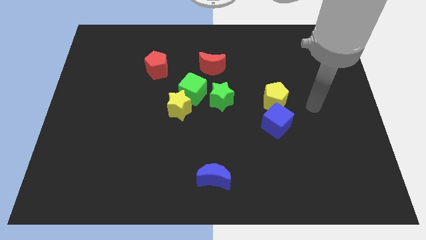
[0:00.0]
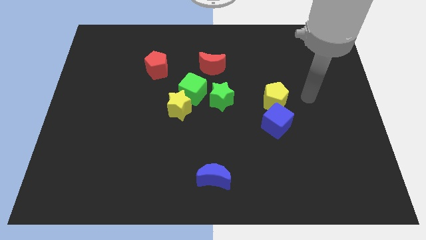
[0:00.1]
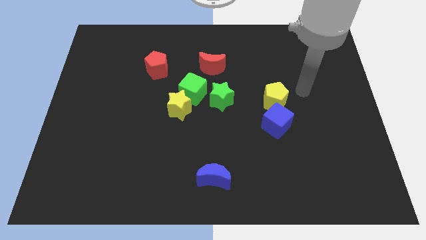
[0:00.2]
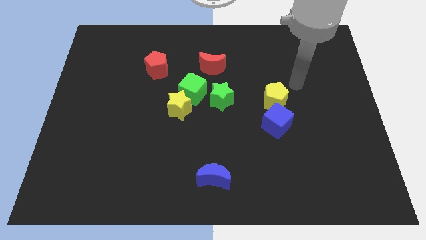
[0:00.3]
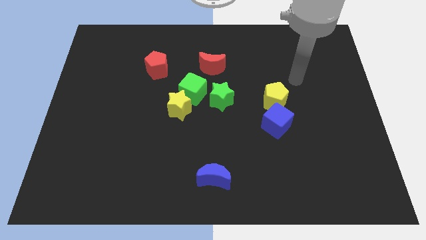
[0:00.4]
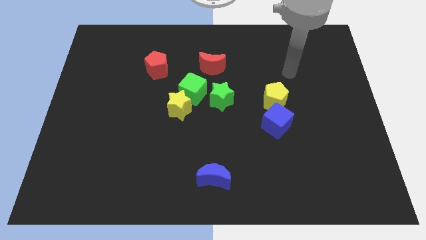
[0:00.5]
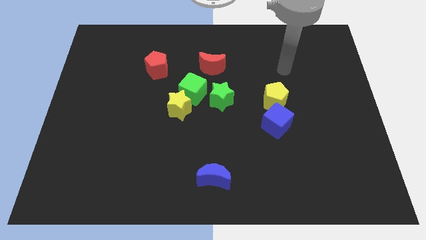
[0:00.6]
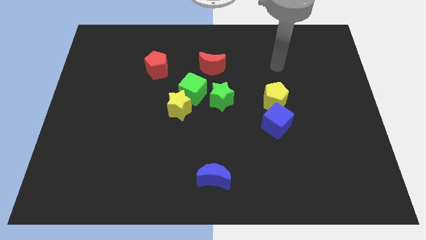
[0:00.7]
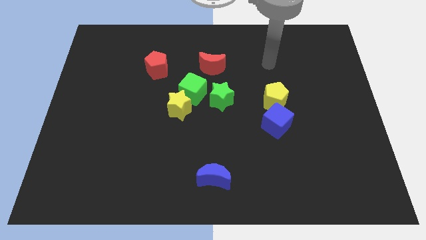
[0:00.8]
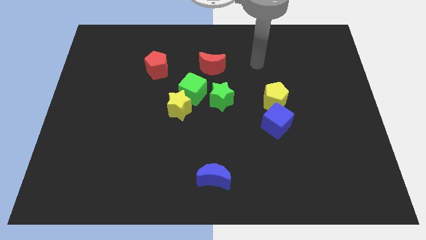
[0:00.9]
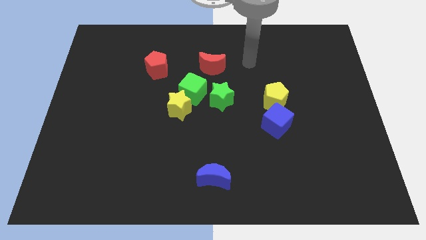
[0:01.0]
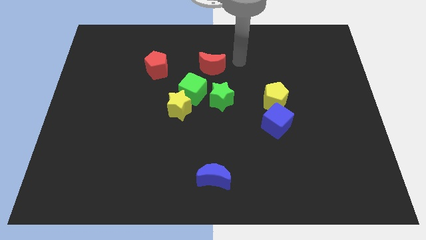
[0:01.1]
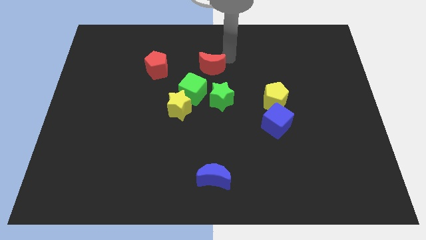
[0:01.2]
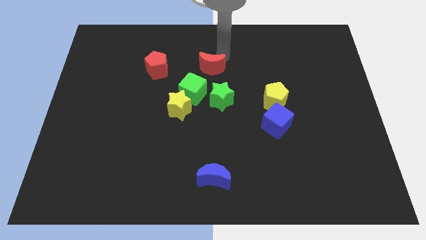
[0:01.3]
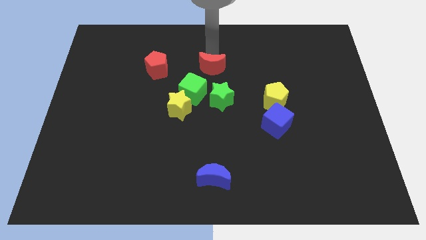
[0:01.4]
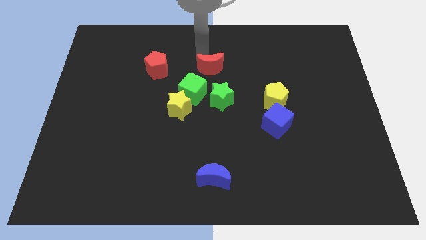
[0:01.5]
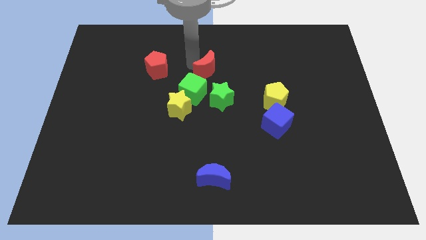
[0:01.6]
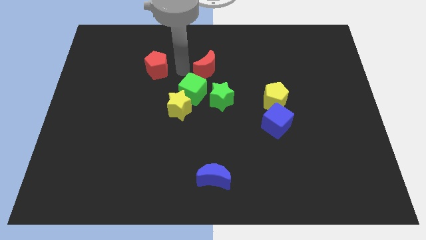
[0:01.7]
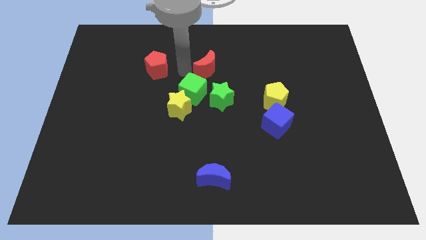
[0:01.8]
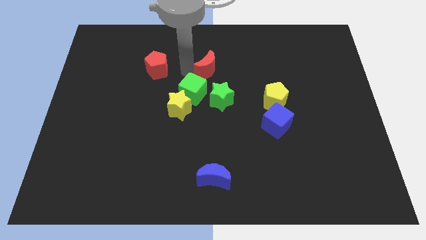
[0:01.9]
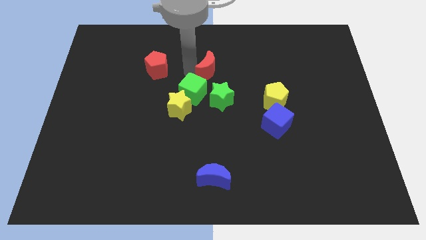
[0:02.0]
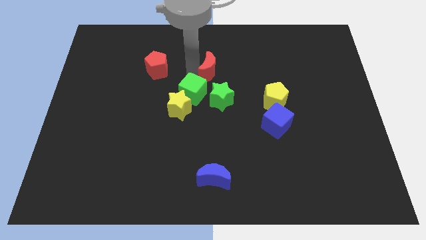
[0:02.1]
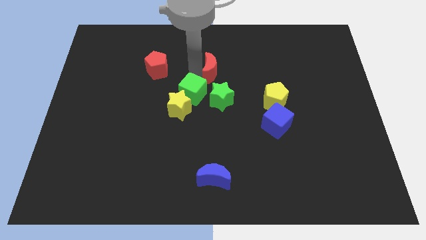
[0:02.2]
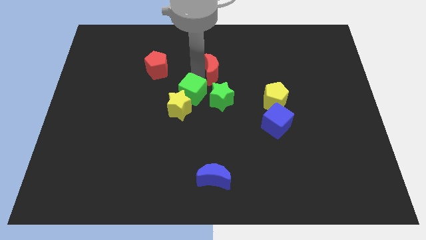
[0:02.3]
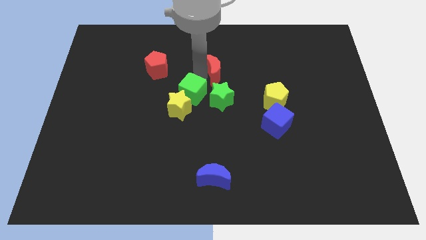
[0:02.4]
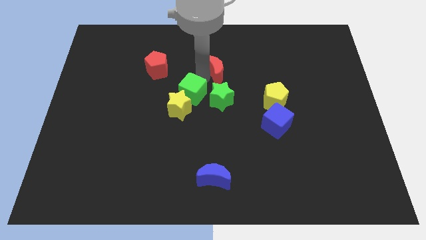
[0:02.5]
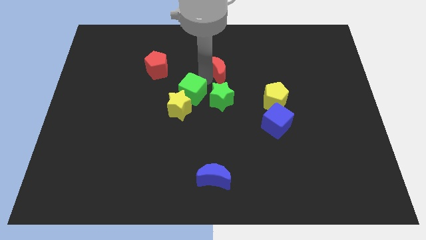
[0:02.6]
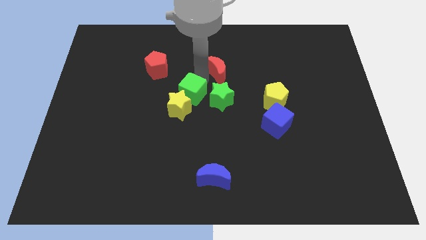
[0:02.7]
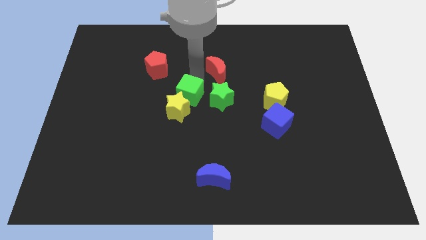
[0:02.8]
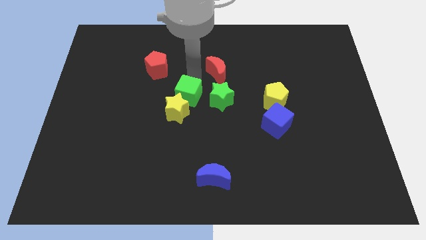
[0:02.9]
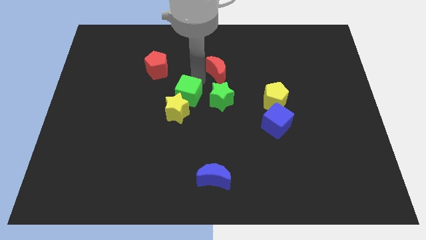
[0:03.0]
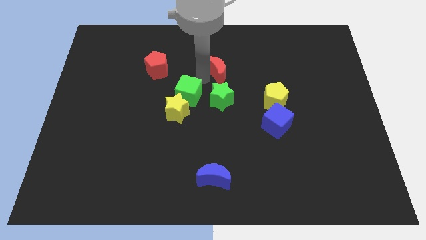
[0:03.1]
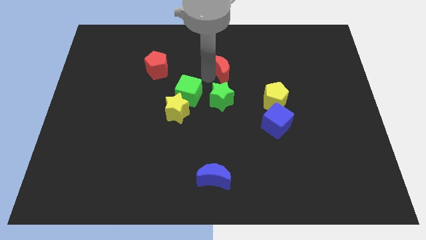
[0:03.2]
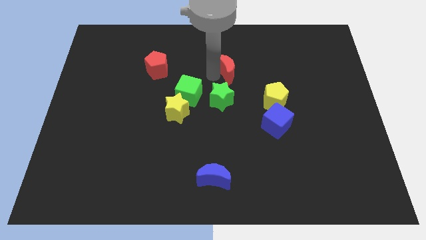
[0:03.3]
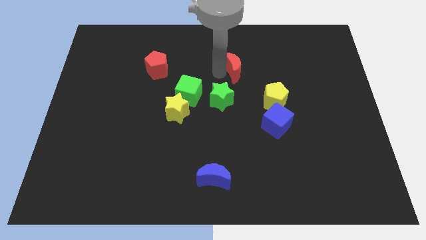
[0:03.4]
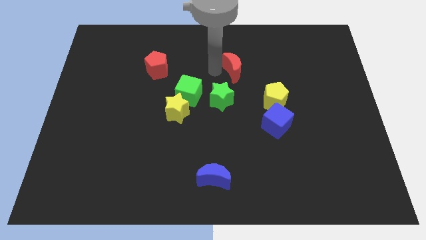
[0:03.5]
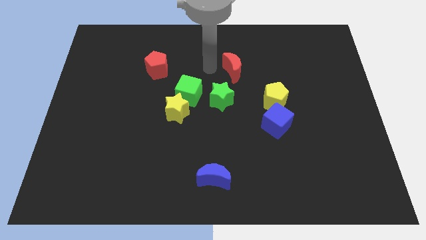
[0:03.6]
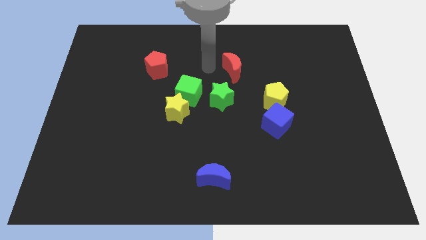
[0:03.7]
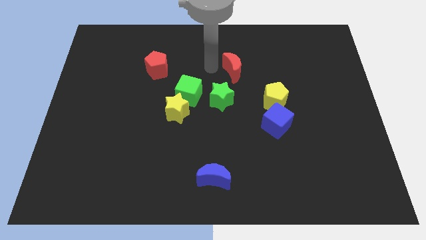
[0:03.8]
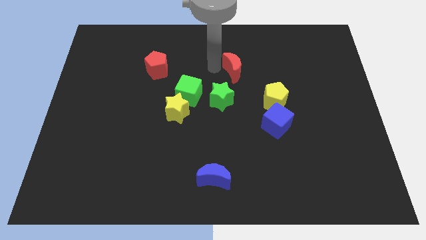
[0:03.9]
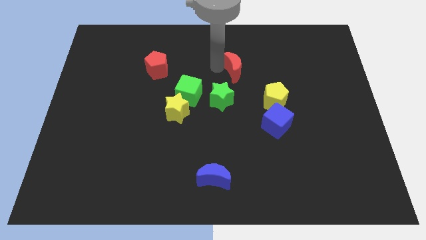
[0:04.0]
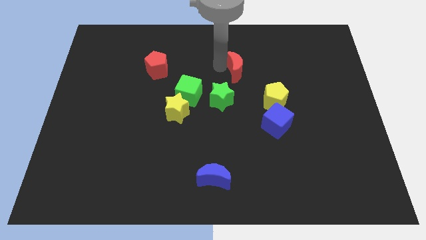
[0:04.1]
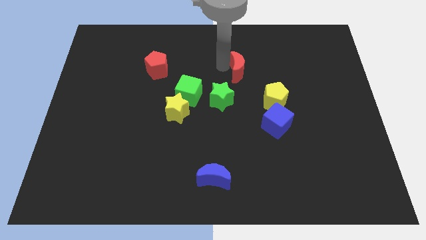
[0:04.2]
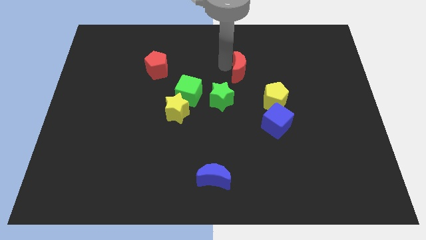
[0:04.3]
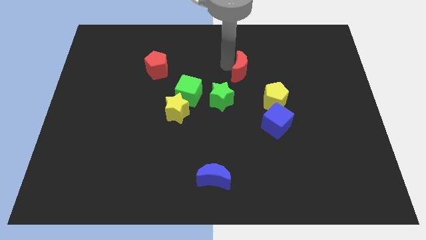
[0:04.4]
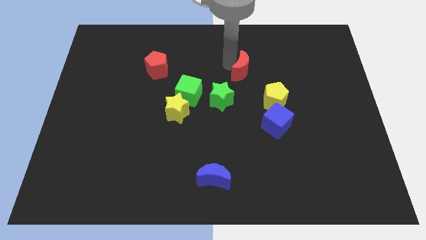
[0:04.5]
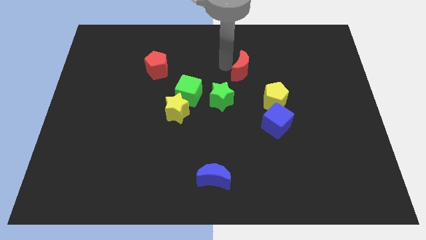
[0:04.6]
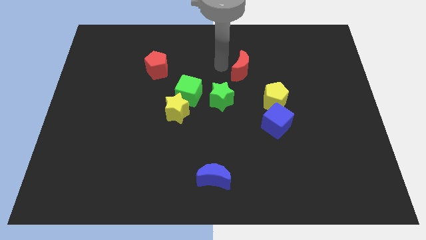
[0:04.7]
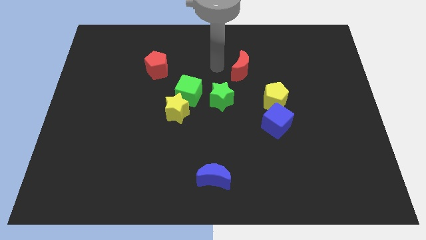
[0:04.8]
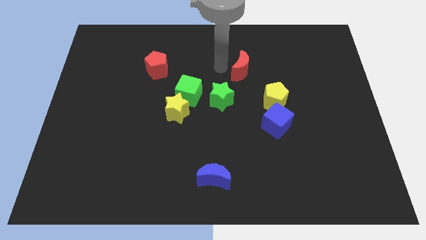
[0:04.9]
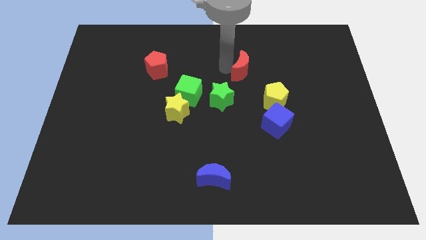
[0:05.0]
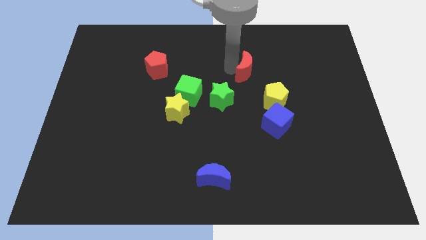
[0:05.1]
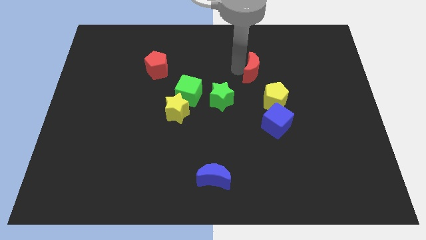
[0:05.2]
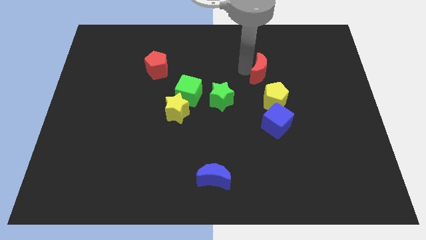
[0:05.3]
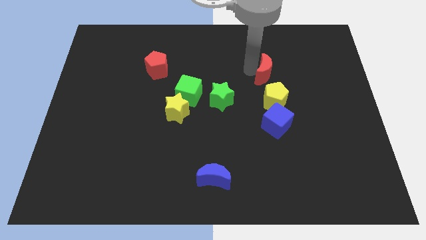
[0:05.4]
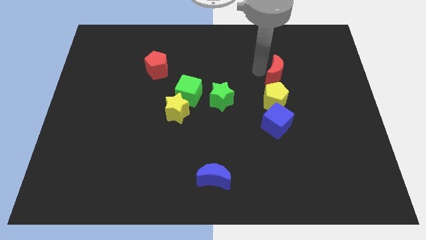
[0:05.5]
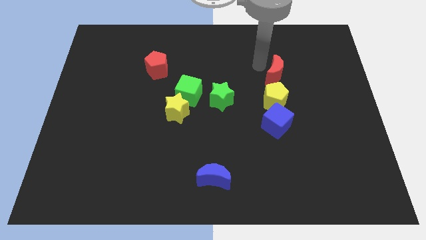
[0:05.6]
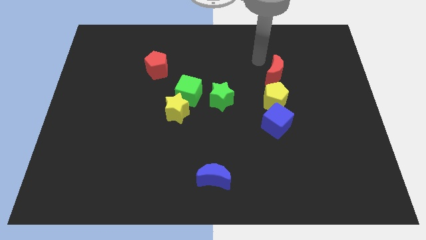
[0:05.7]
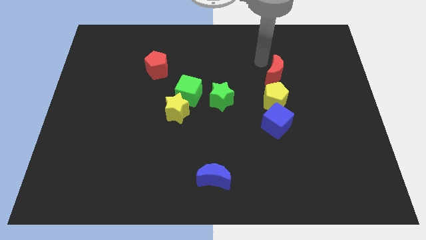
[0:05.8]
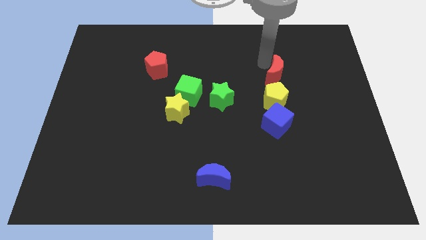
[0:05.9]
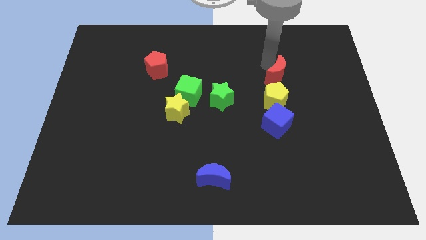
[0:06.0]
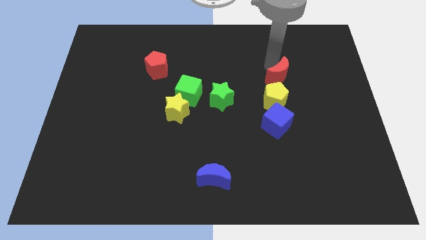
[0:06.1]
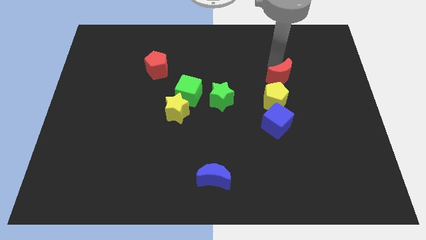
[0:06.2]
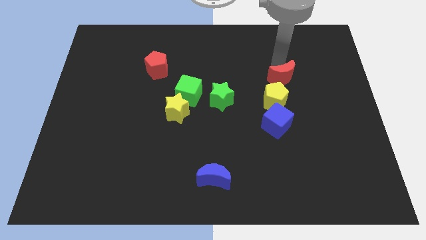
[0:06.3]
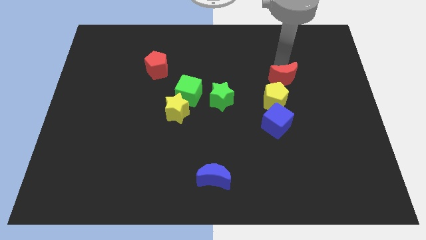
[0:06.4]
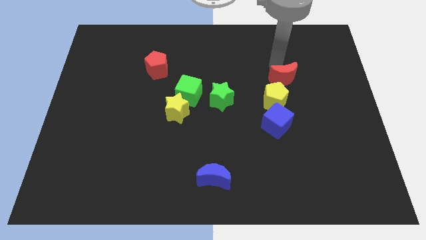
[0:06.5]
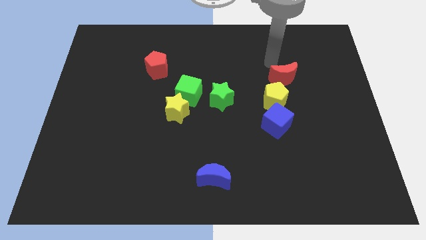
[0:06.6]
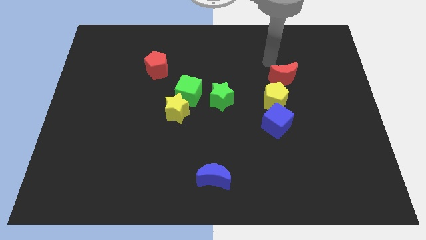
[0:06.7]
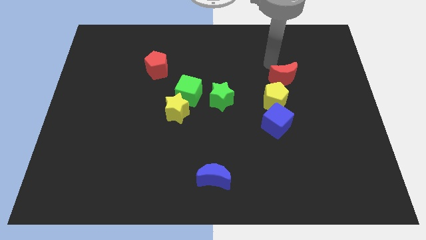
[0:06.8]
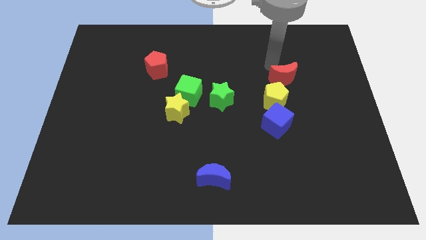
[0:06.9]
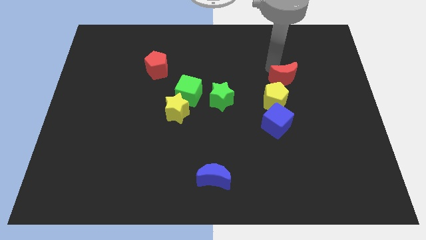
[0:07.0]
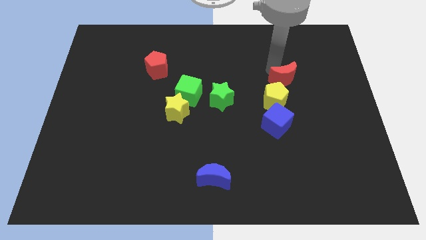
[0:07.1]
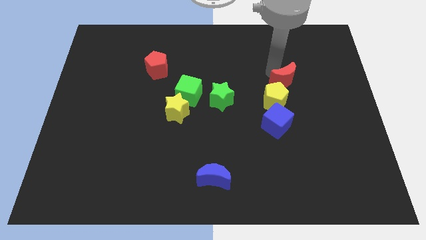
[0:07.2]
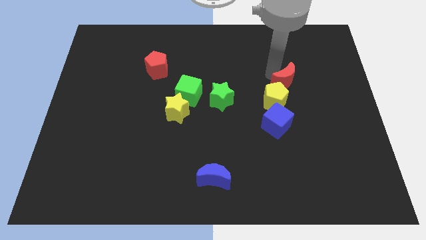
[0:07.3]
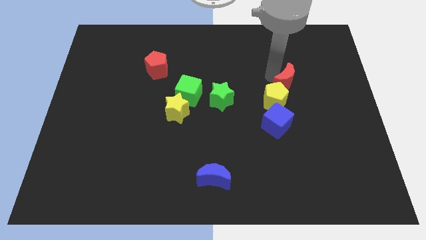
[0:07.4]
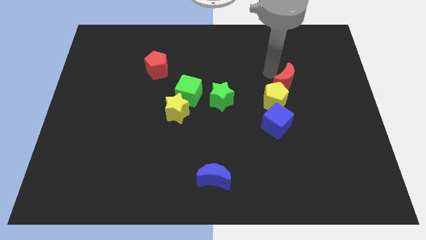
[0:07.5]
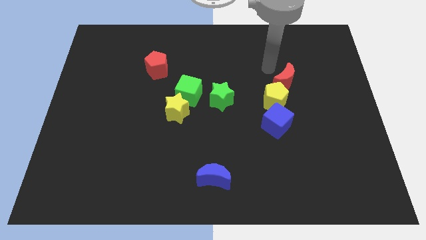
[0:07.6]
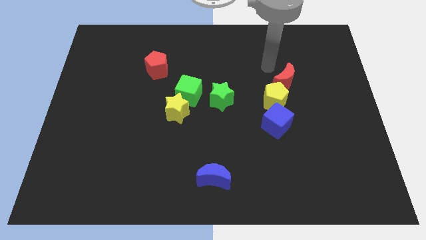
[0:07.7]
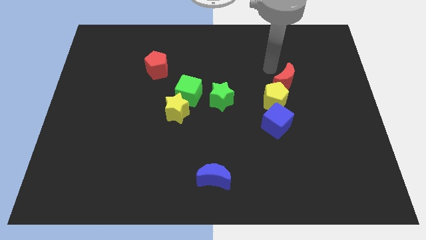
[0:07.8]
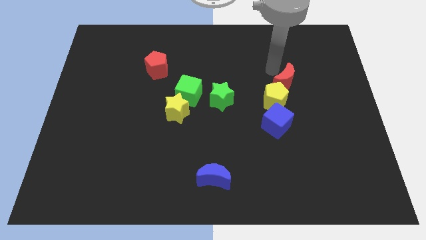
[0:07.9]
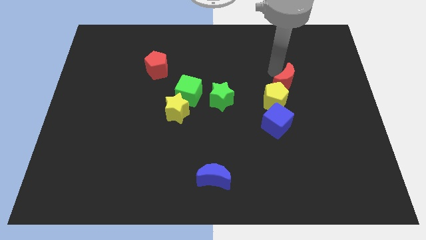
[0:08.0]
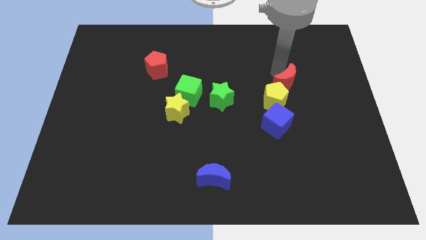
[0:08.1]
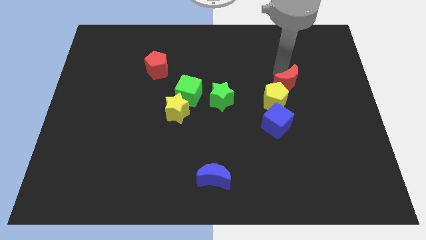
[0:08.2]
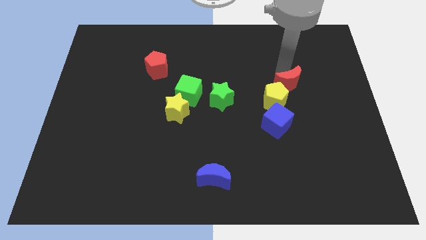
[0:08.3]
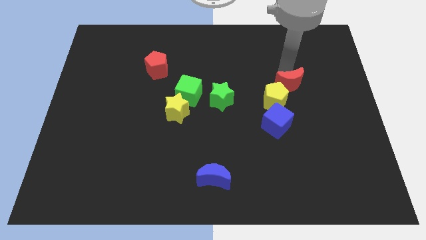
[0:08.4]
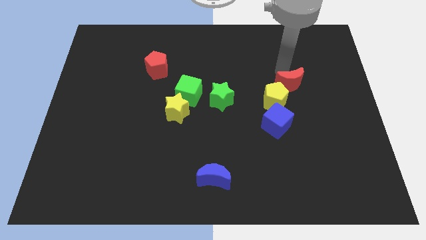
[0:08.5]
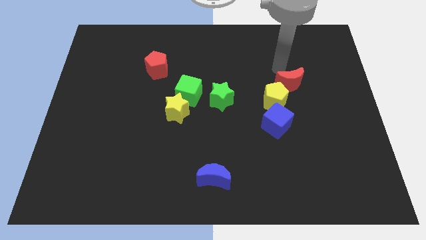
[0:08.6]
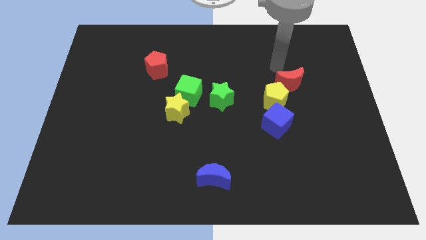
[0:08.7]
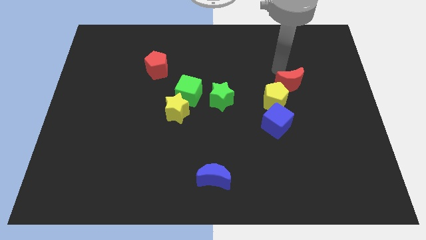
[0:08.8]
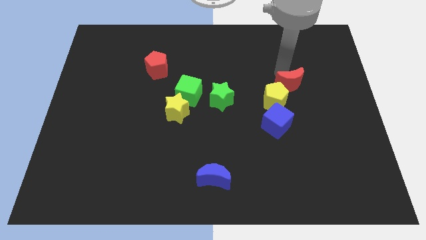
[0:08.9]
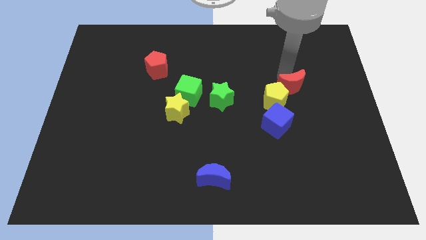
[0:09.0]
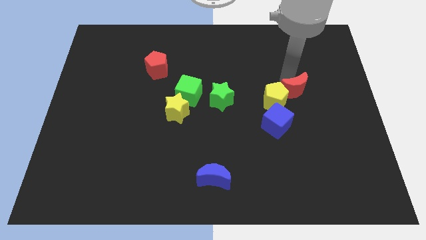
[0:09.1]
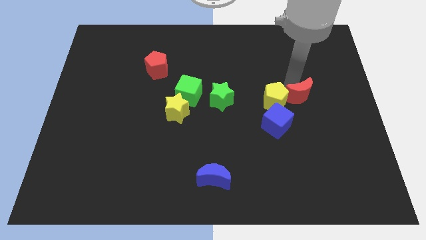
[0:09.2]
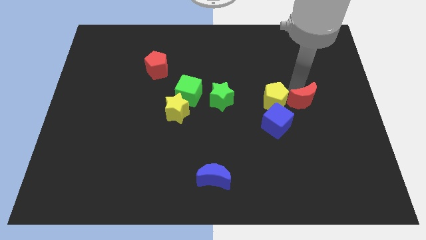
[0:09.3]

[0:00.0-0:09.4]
slide the red moon diagonally down and to the right
